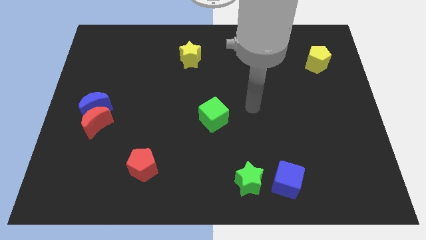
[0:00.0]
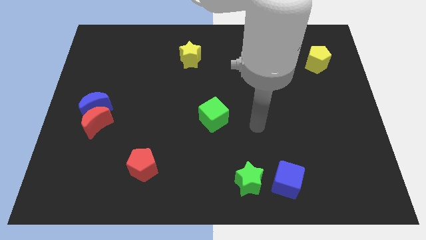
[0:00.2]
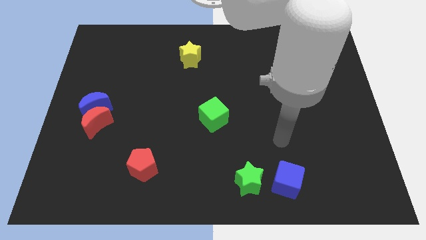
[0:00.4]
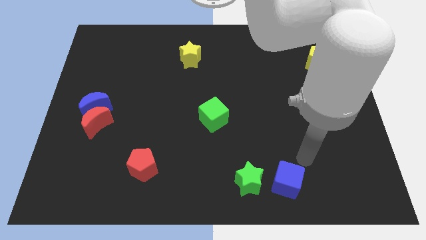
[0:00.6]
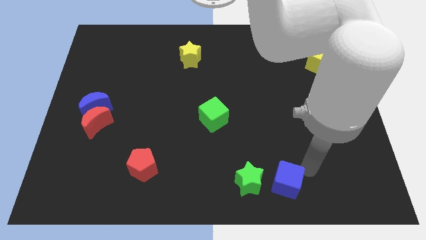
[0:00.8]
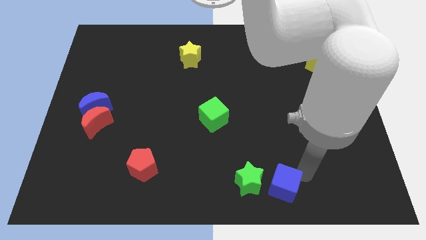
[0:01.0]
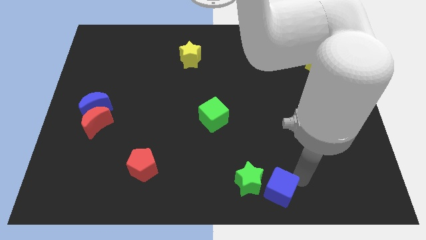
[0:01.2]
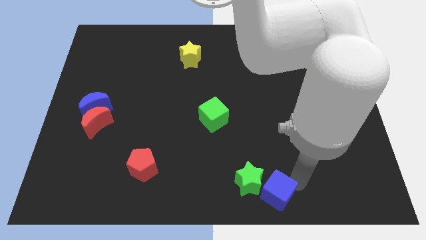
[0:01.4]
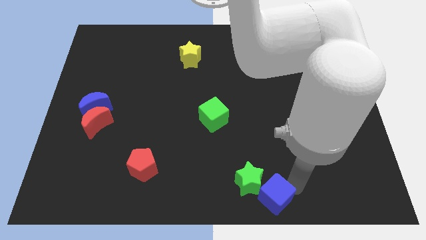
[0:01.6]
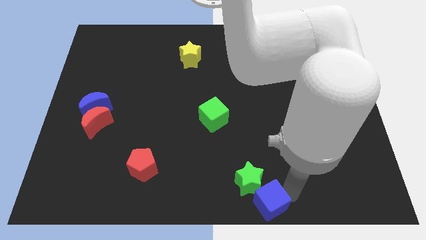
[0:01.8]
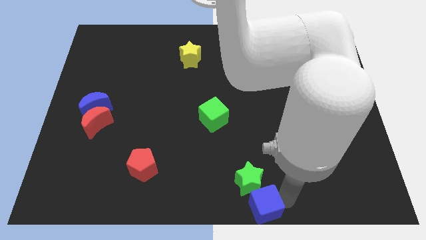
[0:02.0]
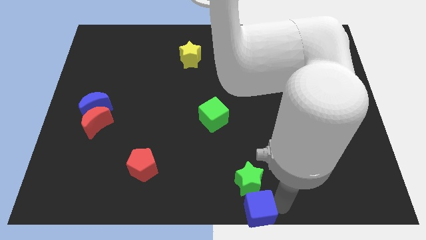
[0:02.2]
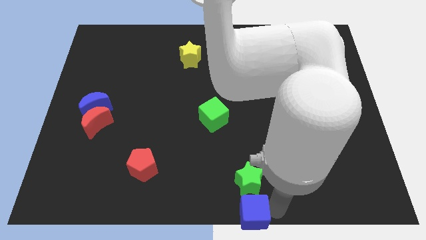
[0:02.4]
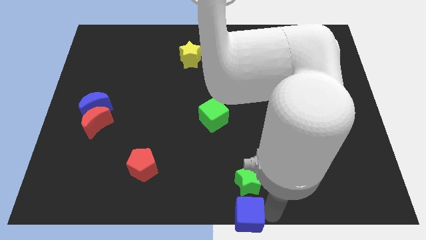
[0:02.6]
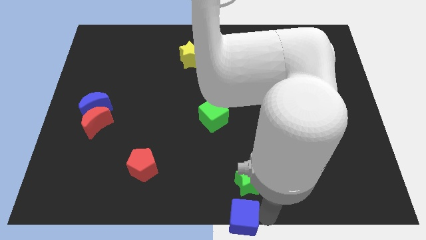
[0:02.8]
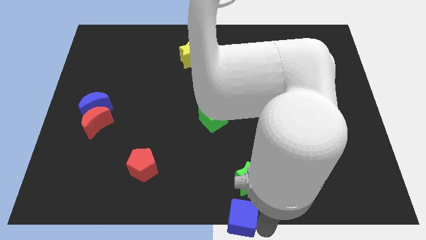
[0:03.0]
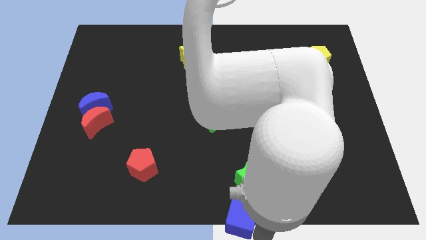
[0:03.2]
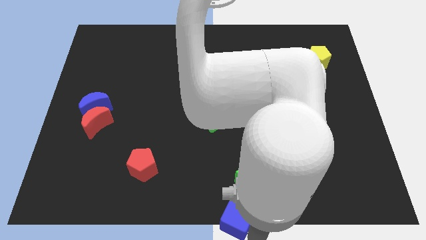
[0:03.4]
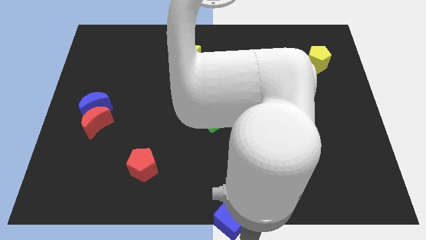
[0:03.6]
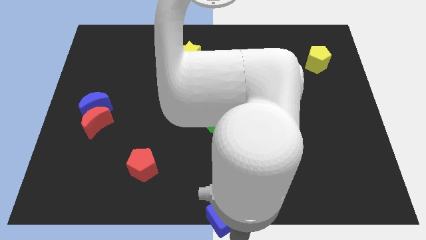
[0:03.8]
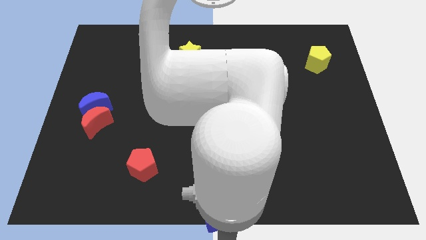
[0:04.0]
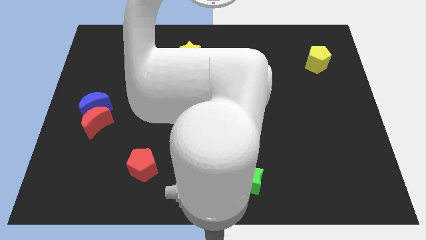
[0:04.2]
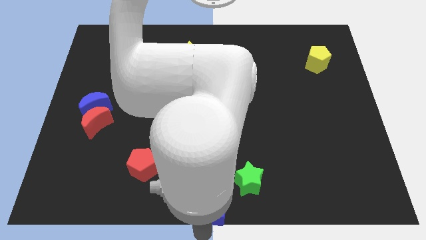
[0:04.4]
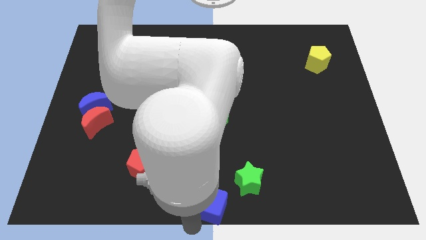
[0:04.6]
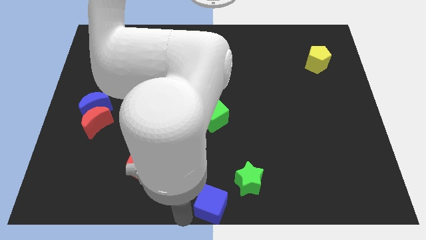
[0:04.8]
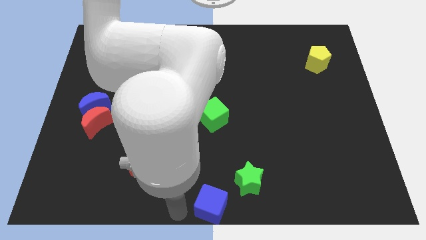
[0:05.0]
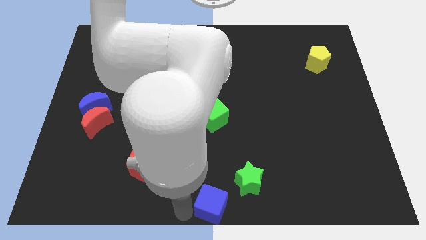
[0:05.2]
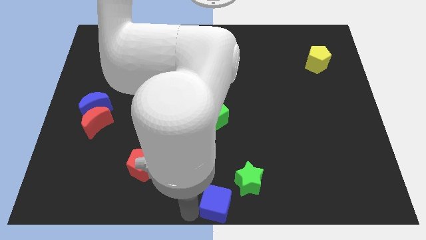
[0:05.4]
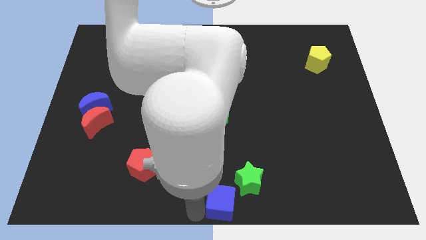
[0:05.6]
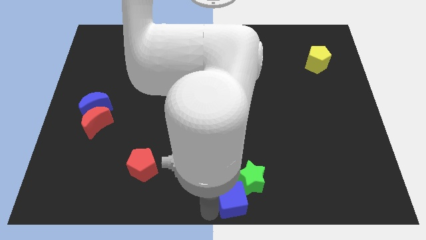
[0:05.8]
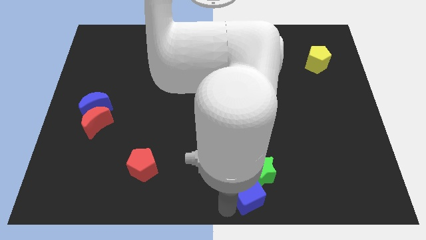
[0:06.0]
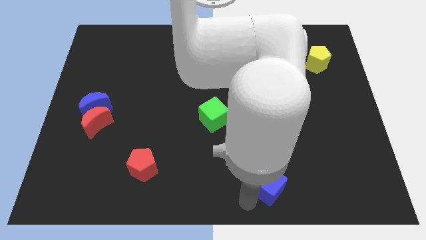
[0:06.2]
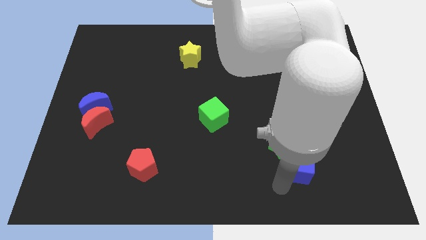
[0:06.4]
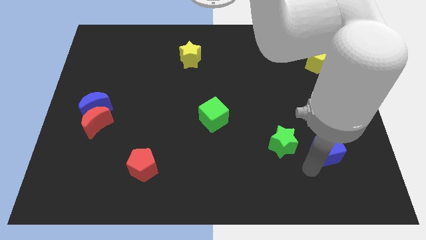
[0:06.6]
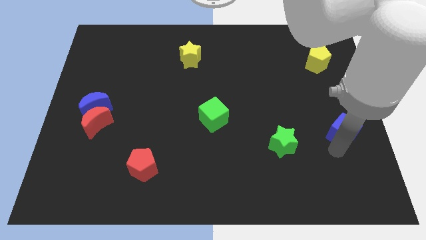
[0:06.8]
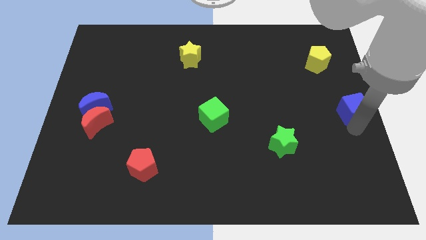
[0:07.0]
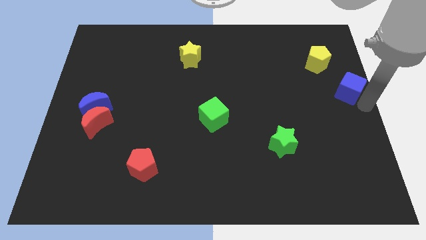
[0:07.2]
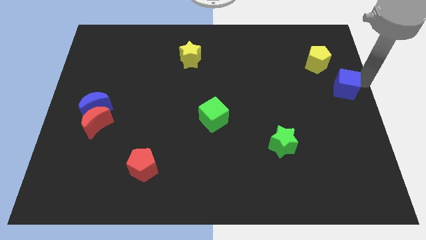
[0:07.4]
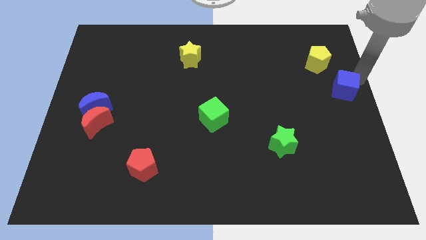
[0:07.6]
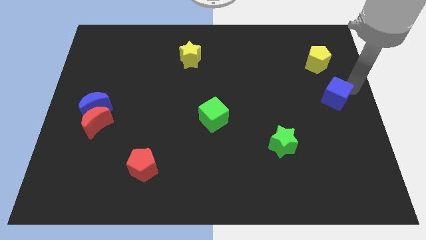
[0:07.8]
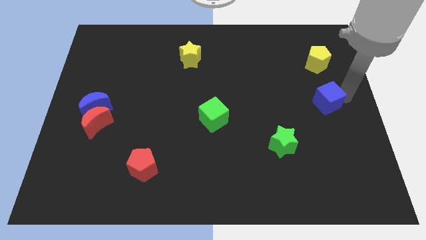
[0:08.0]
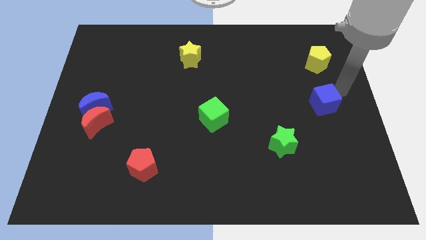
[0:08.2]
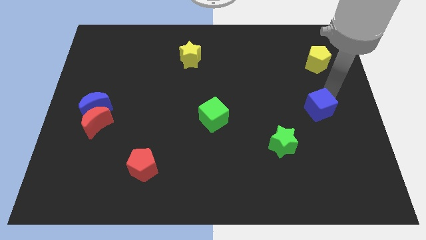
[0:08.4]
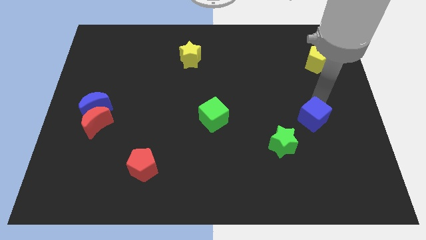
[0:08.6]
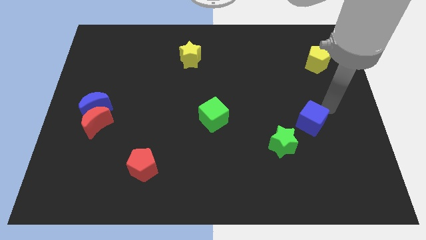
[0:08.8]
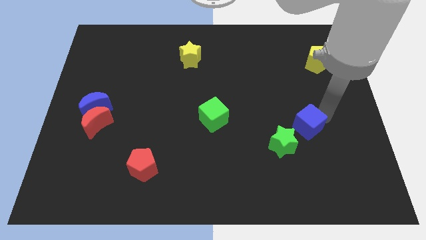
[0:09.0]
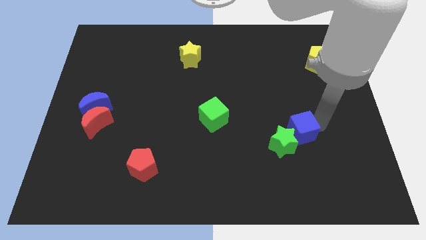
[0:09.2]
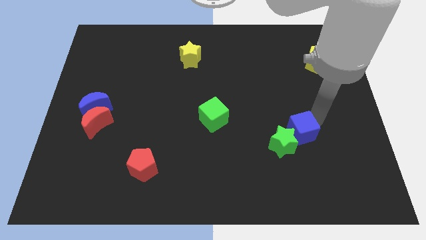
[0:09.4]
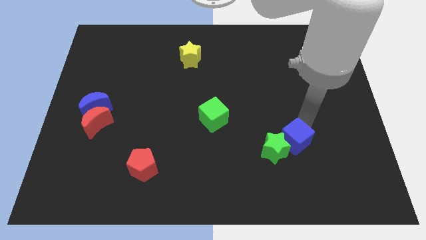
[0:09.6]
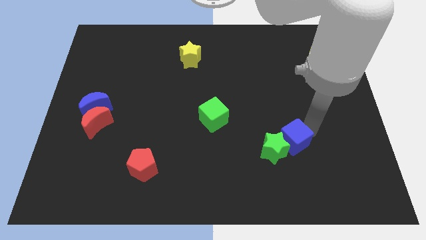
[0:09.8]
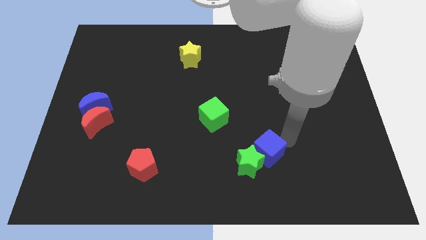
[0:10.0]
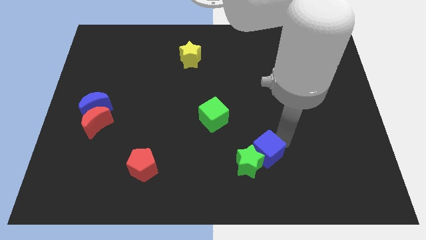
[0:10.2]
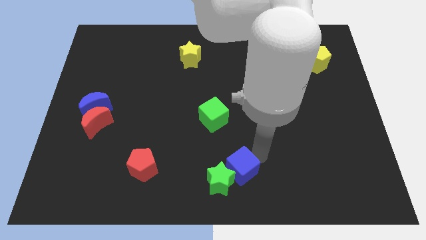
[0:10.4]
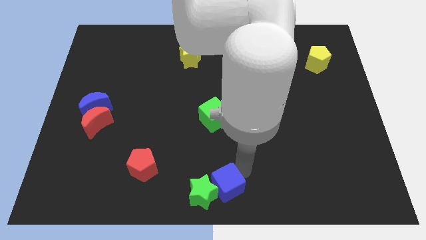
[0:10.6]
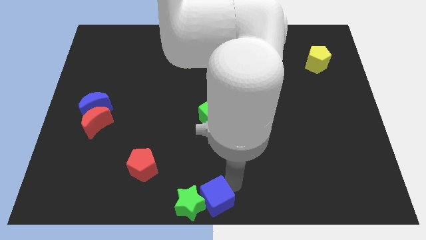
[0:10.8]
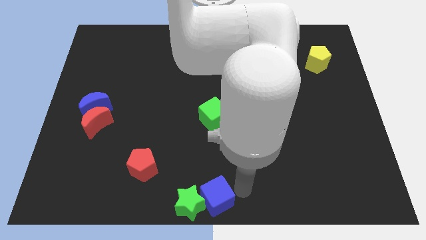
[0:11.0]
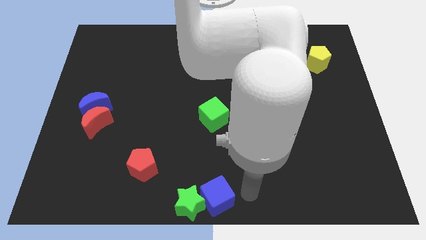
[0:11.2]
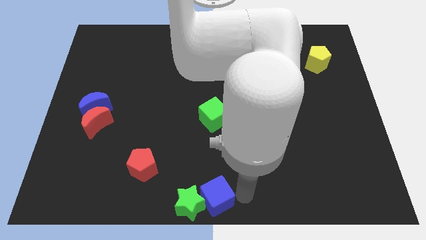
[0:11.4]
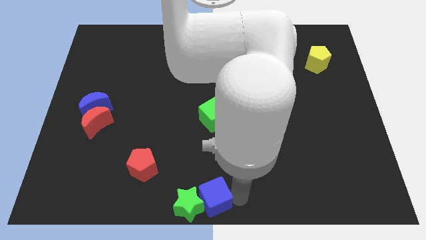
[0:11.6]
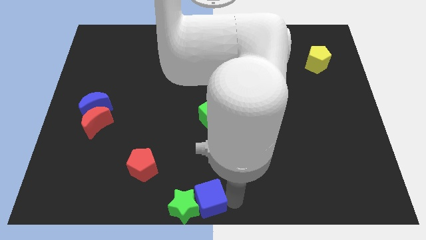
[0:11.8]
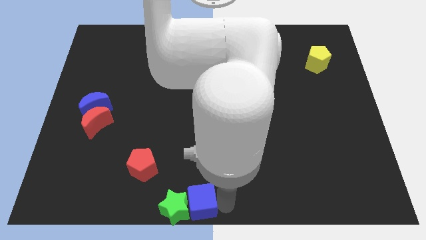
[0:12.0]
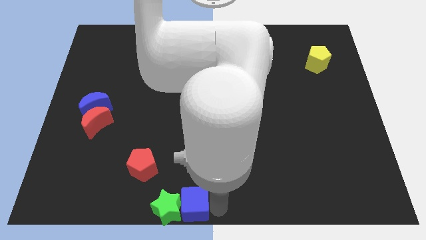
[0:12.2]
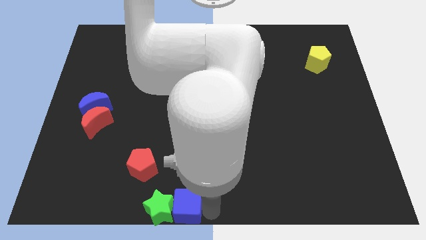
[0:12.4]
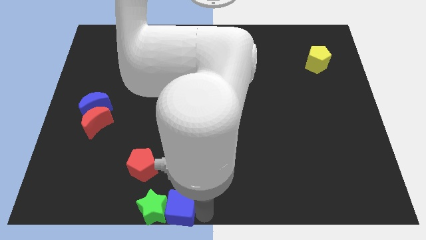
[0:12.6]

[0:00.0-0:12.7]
slide the blue cube left

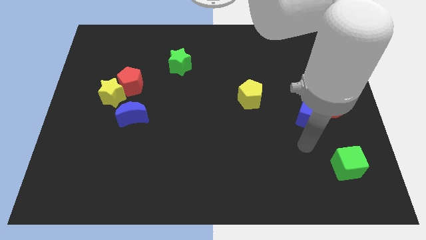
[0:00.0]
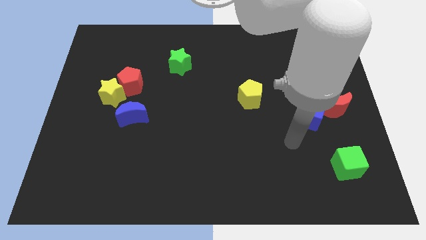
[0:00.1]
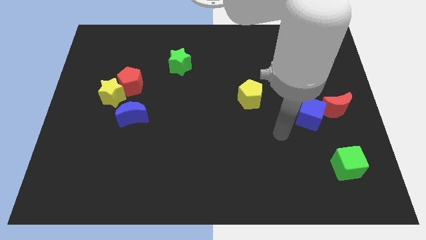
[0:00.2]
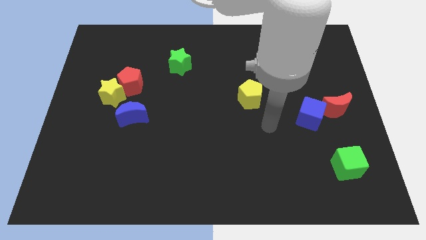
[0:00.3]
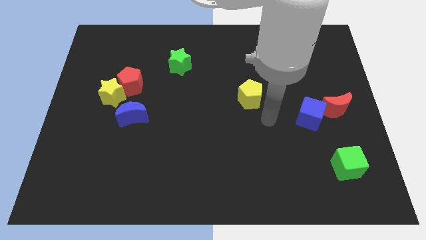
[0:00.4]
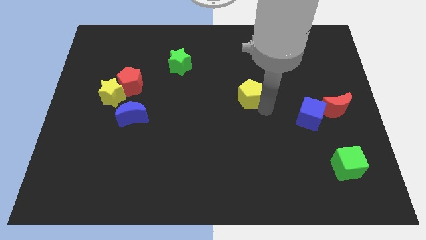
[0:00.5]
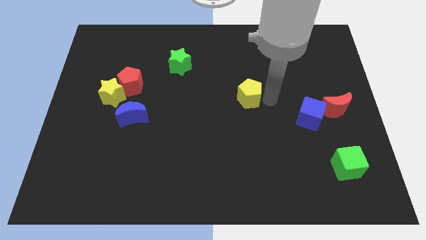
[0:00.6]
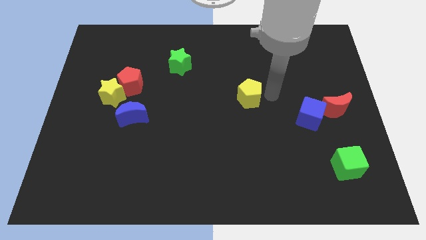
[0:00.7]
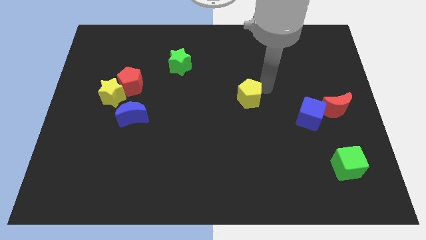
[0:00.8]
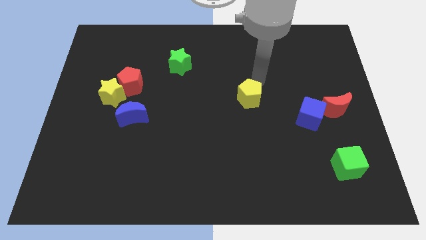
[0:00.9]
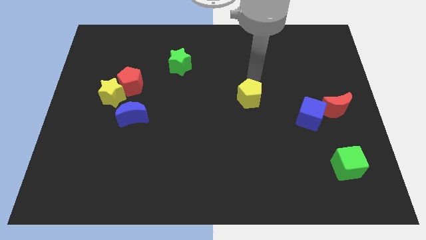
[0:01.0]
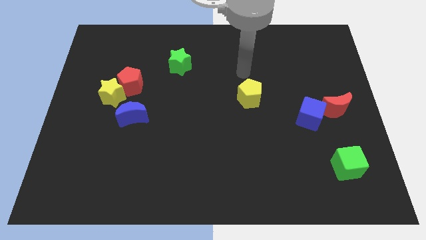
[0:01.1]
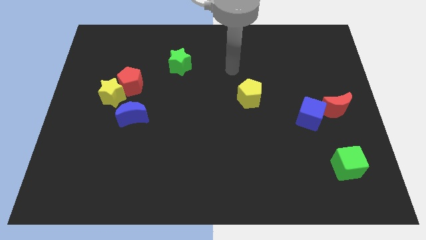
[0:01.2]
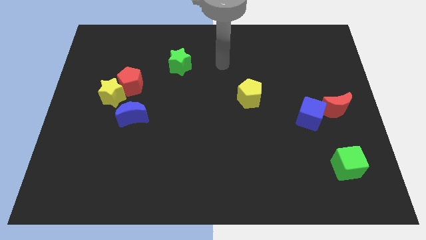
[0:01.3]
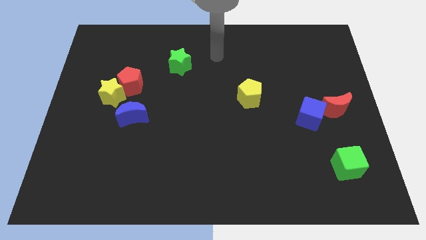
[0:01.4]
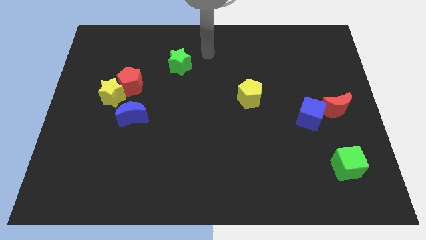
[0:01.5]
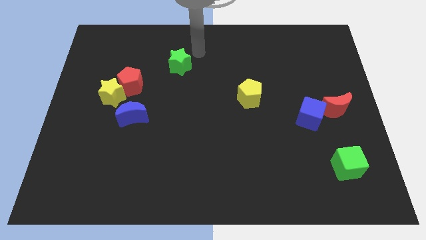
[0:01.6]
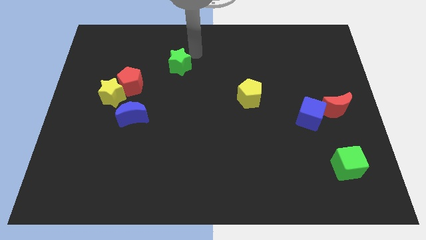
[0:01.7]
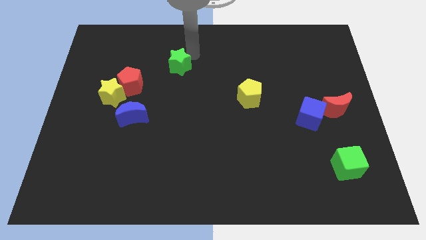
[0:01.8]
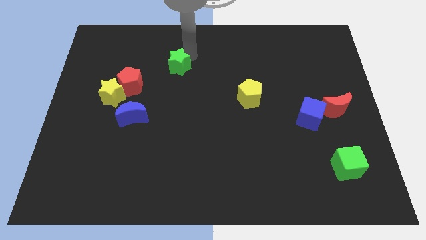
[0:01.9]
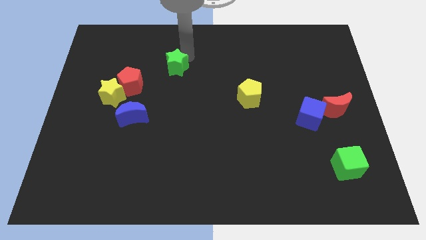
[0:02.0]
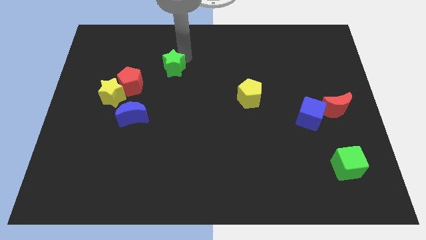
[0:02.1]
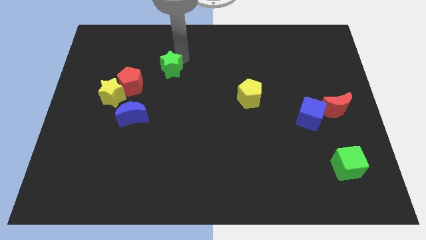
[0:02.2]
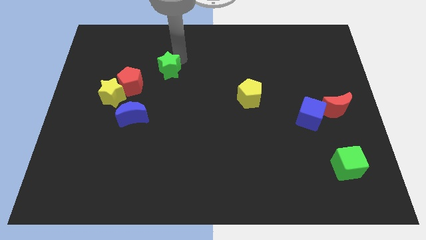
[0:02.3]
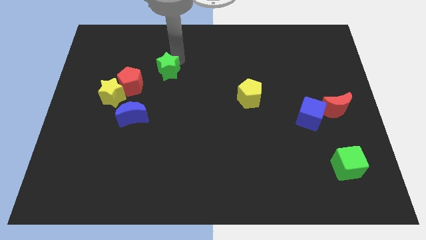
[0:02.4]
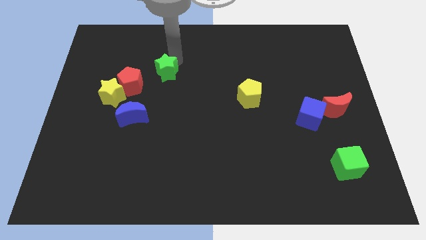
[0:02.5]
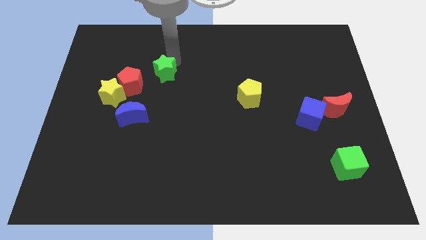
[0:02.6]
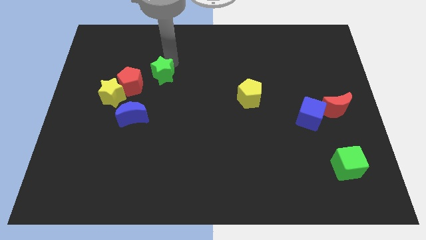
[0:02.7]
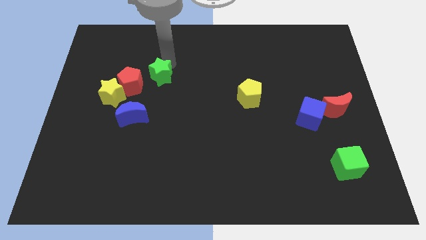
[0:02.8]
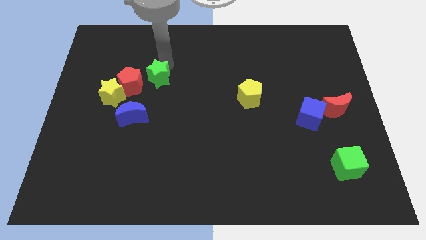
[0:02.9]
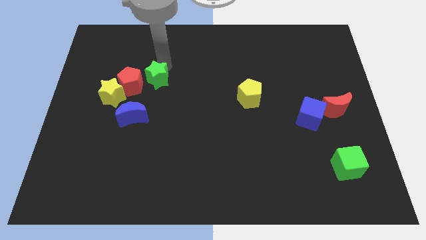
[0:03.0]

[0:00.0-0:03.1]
slightly slide the green star downwards and left diagonally
